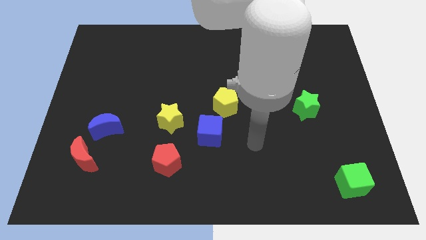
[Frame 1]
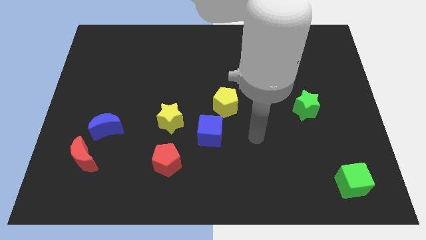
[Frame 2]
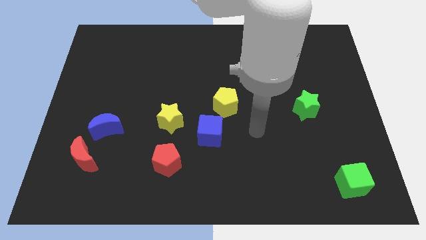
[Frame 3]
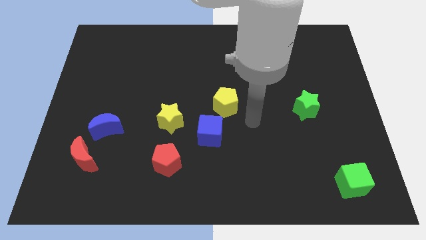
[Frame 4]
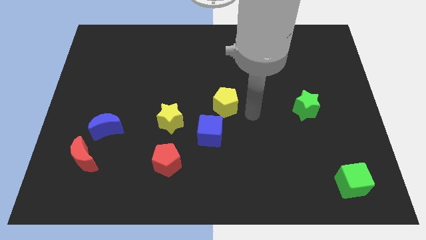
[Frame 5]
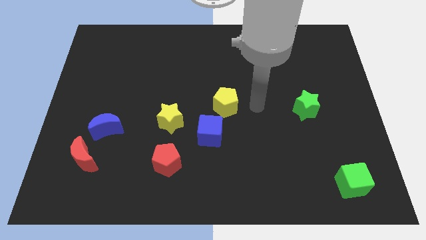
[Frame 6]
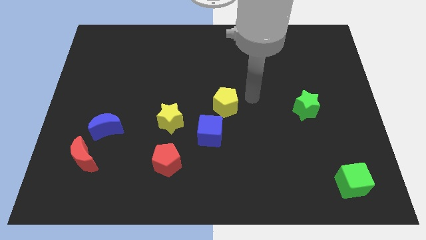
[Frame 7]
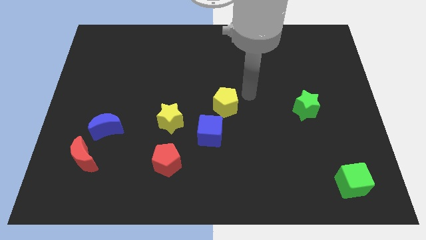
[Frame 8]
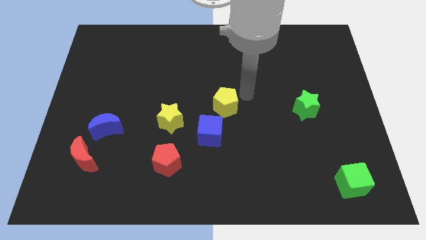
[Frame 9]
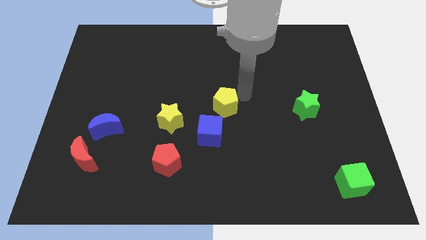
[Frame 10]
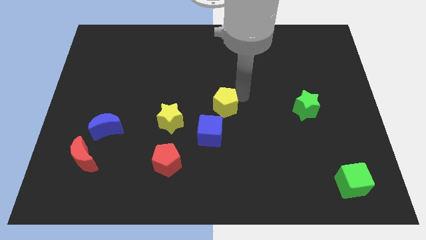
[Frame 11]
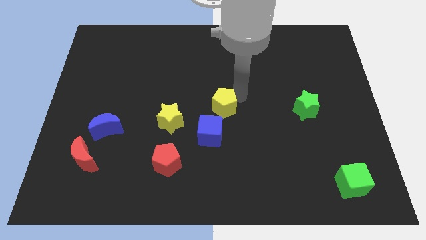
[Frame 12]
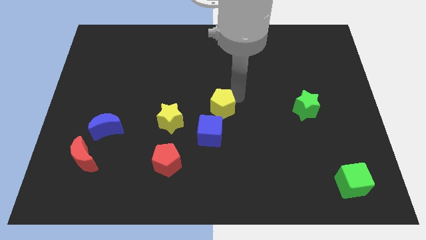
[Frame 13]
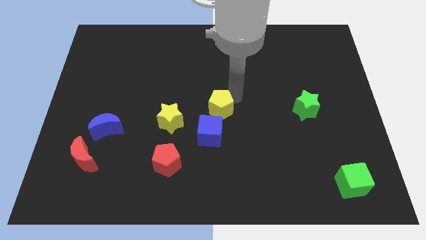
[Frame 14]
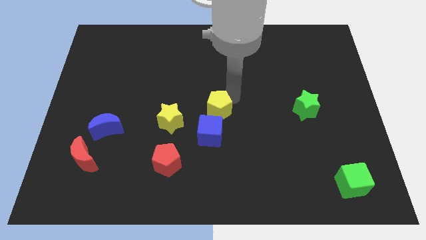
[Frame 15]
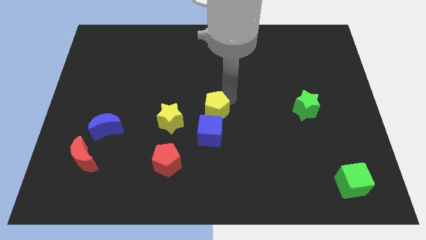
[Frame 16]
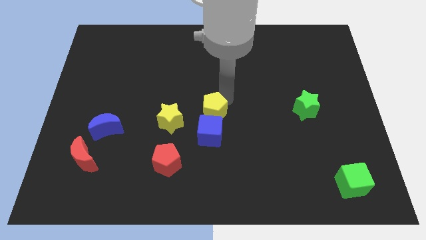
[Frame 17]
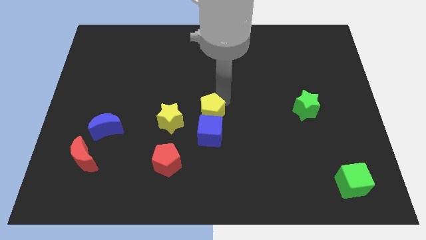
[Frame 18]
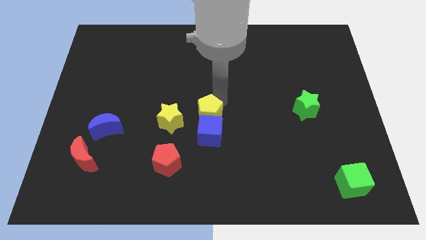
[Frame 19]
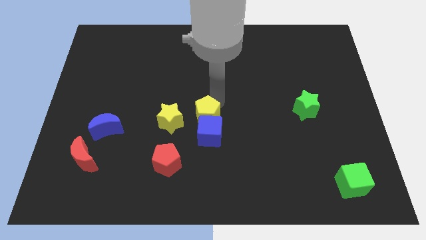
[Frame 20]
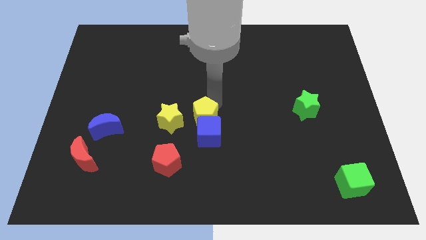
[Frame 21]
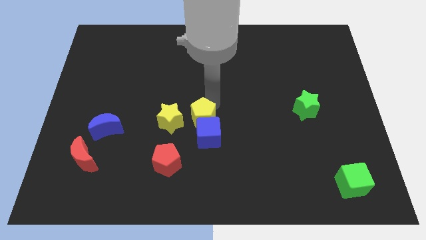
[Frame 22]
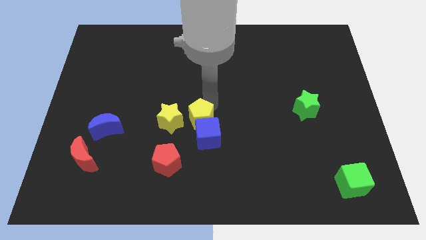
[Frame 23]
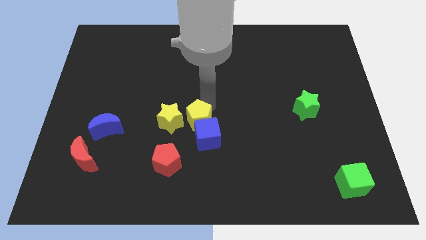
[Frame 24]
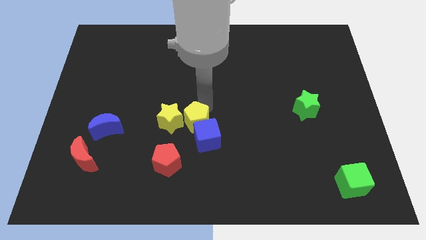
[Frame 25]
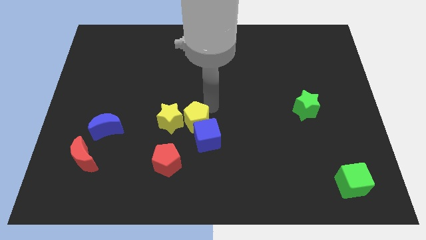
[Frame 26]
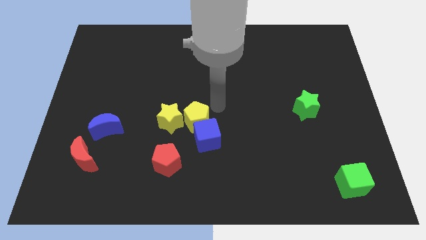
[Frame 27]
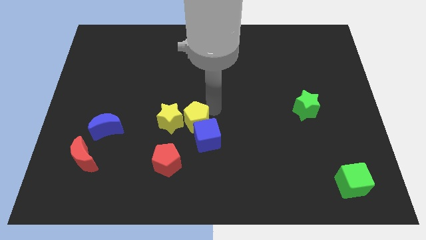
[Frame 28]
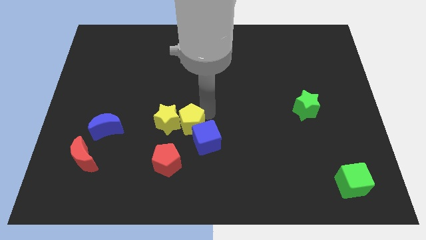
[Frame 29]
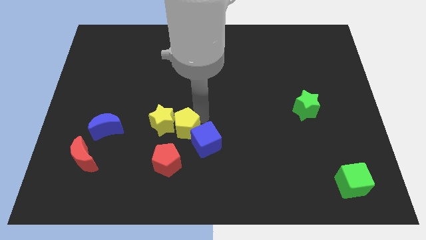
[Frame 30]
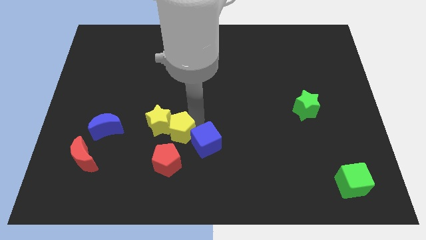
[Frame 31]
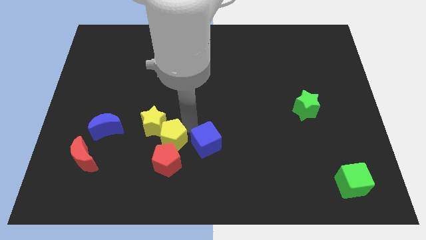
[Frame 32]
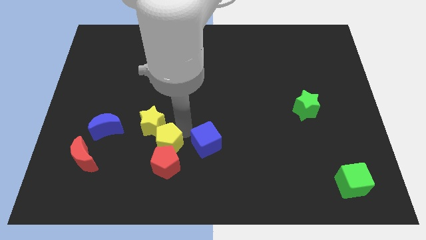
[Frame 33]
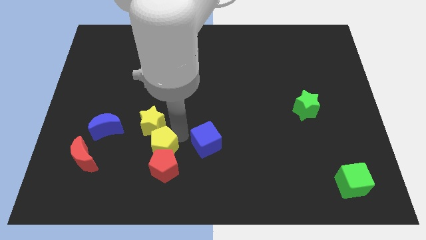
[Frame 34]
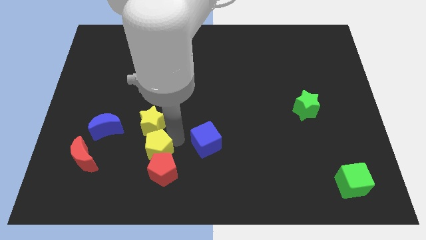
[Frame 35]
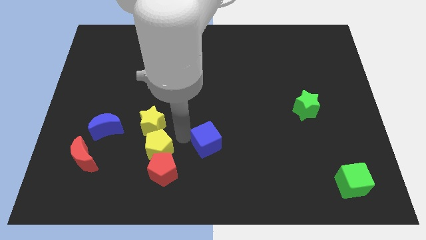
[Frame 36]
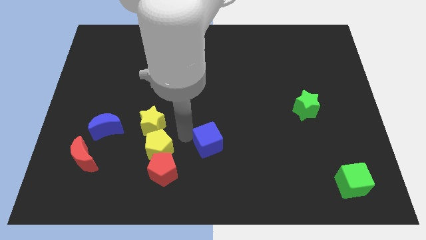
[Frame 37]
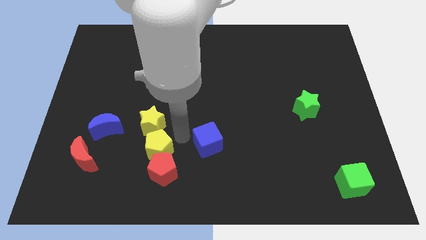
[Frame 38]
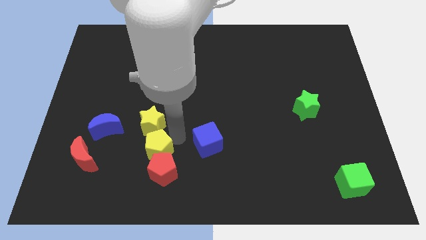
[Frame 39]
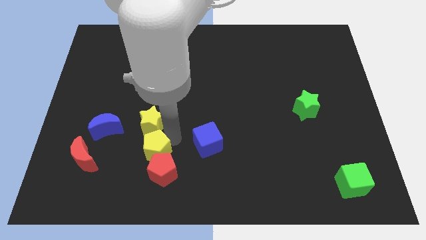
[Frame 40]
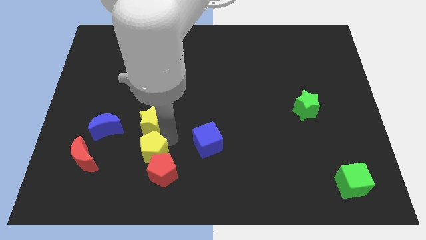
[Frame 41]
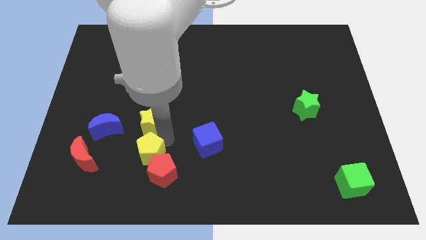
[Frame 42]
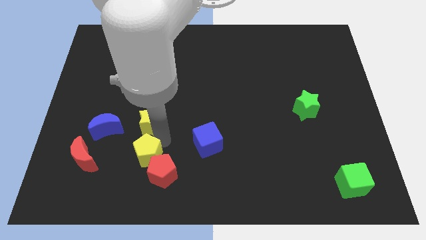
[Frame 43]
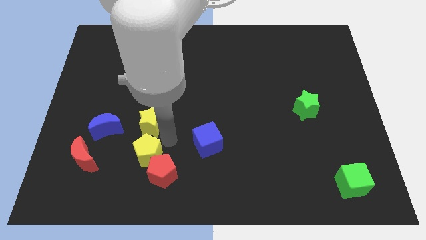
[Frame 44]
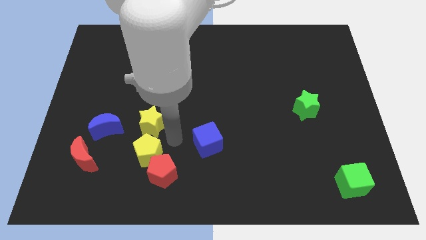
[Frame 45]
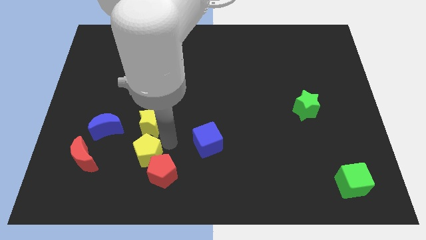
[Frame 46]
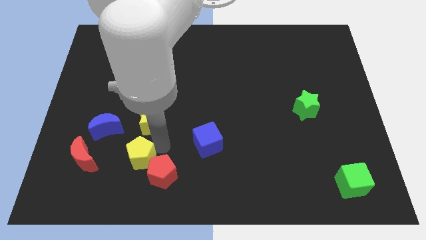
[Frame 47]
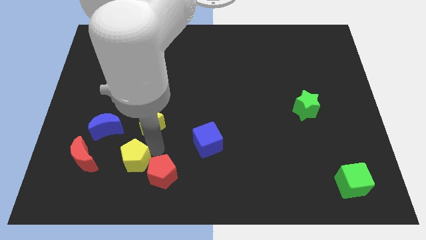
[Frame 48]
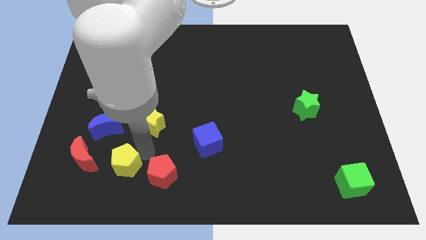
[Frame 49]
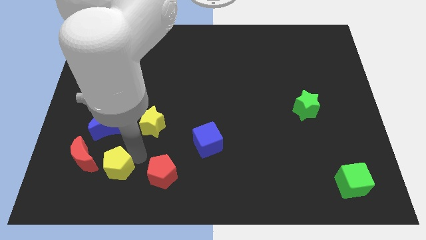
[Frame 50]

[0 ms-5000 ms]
move the yellow pentagon to the bottom right side of the red moon

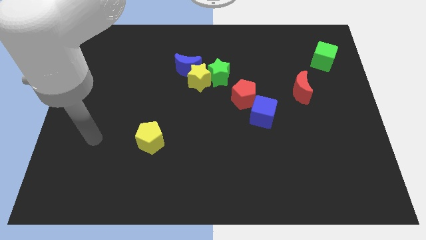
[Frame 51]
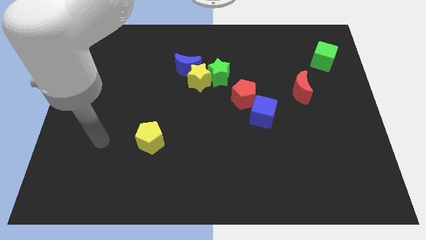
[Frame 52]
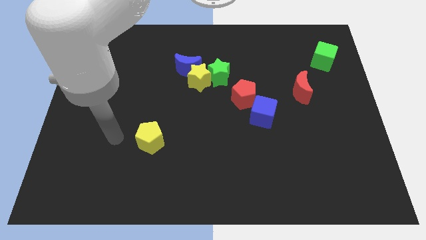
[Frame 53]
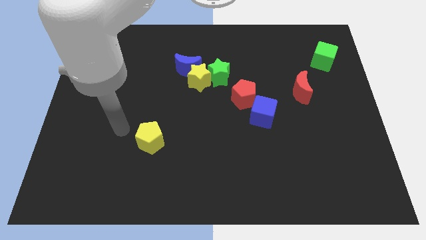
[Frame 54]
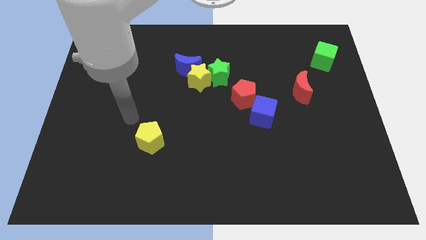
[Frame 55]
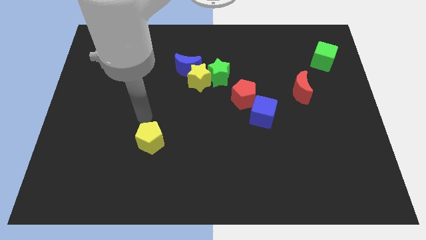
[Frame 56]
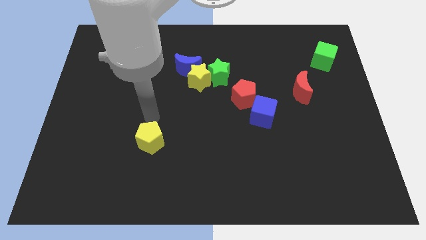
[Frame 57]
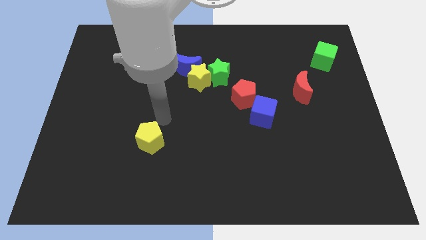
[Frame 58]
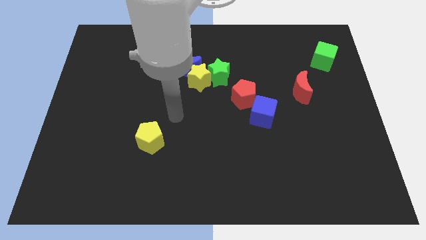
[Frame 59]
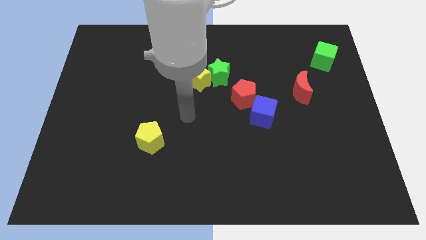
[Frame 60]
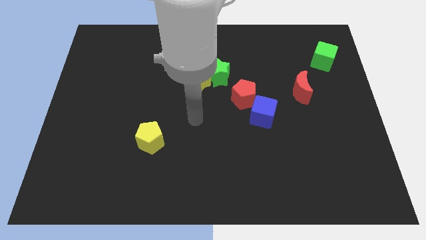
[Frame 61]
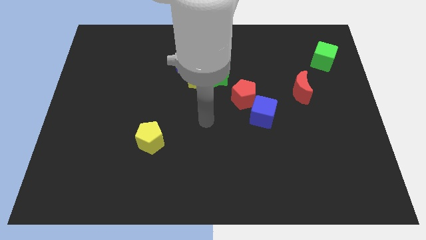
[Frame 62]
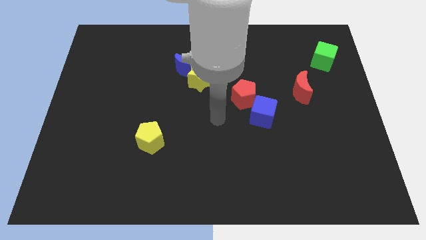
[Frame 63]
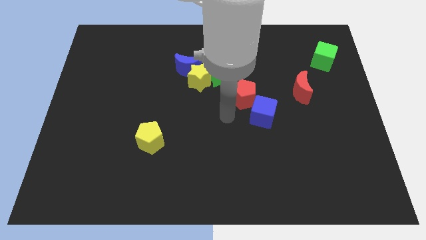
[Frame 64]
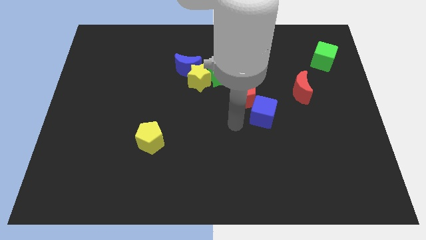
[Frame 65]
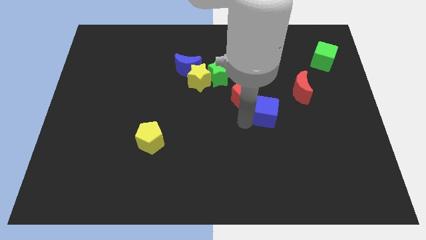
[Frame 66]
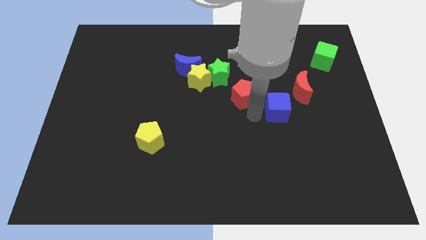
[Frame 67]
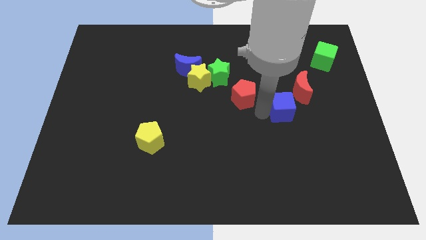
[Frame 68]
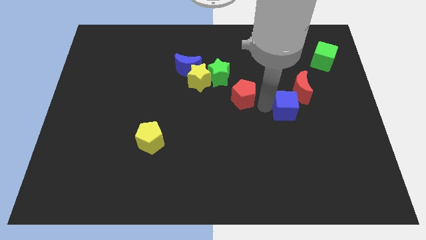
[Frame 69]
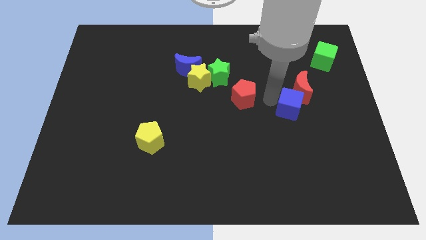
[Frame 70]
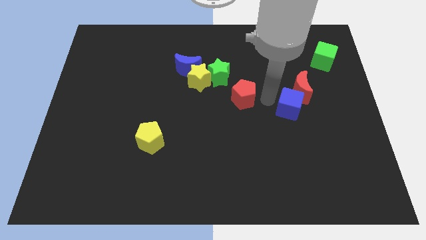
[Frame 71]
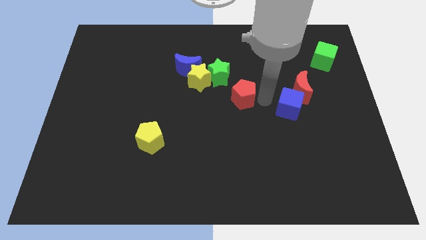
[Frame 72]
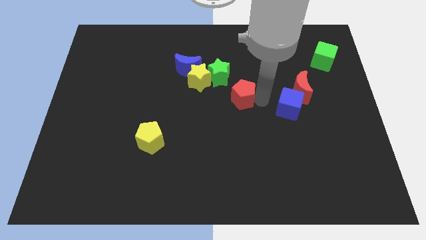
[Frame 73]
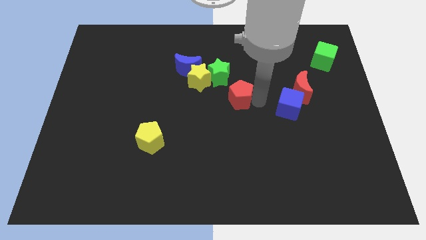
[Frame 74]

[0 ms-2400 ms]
move the red pentagon diagonally down and to the right of the yellow star
